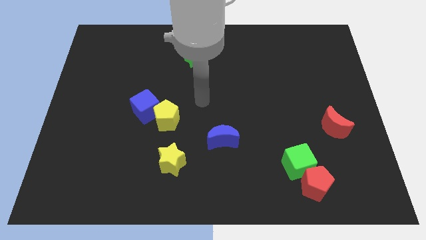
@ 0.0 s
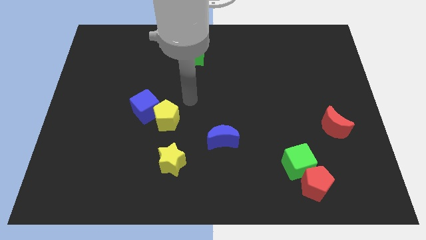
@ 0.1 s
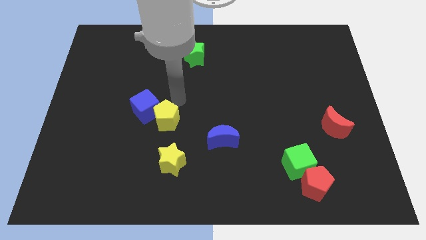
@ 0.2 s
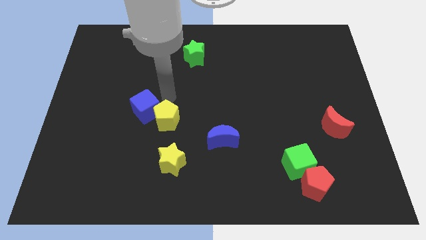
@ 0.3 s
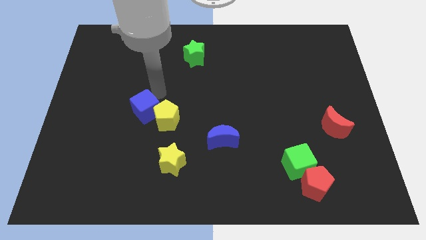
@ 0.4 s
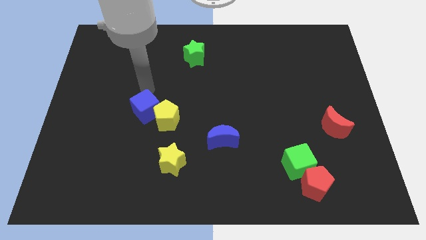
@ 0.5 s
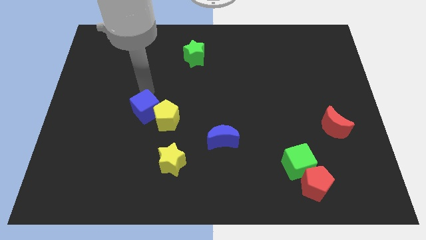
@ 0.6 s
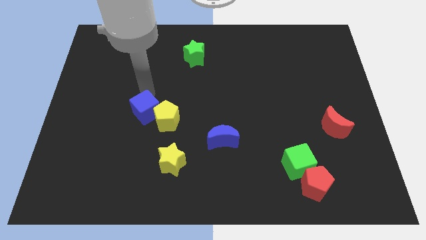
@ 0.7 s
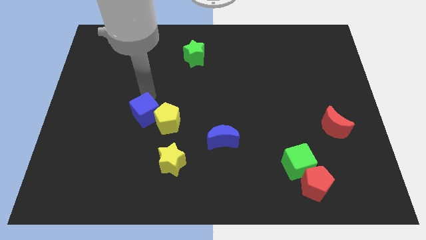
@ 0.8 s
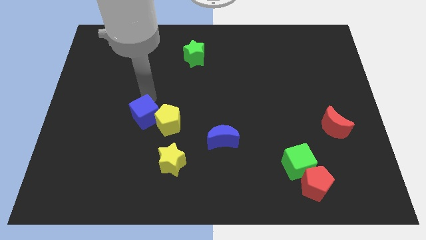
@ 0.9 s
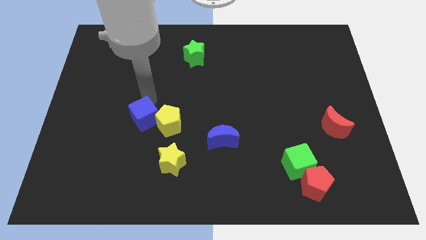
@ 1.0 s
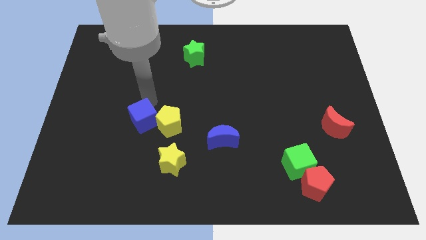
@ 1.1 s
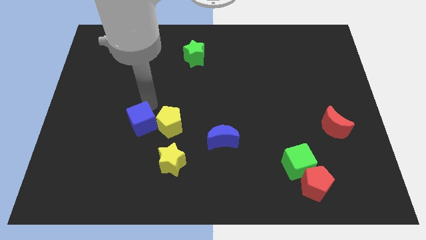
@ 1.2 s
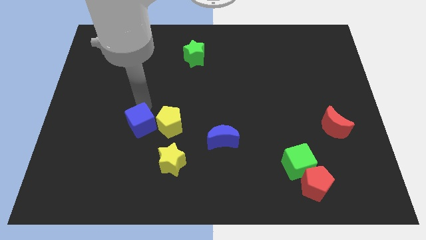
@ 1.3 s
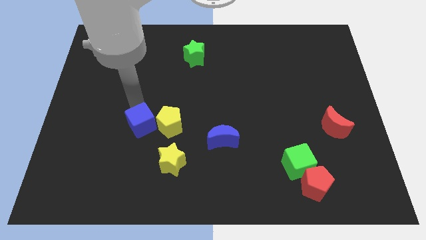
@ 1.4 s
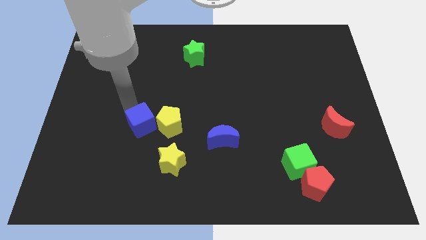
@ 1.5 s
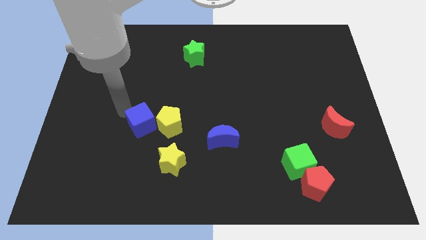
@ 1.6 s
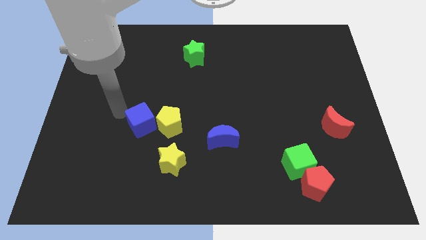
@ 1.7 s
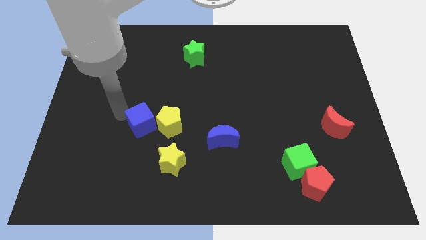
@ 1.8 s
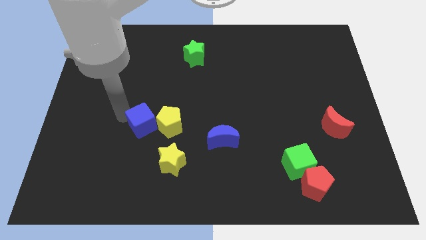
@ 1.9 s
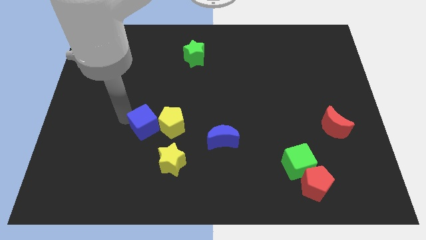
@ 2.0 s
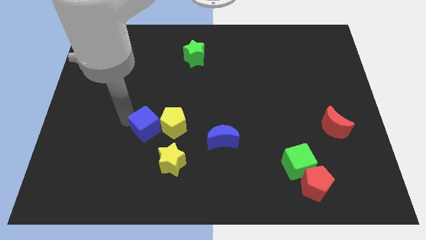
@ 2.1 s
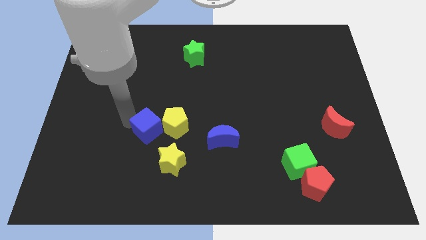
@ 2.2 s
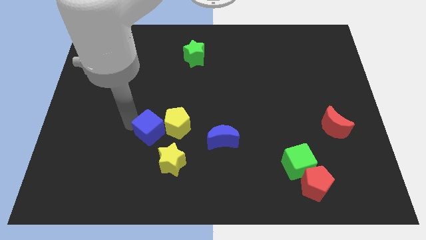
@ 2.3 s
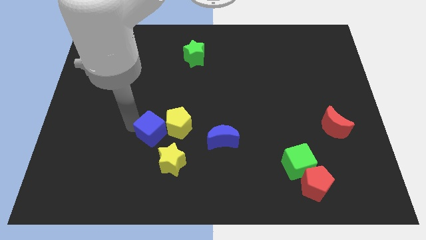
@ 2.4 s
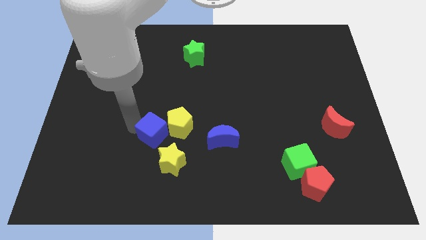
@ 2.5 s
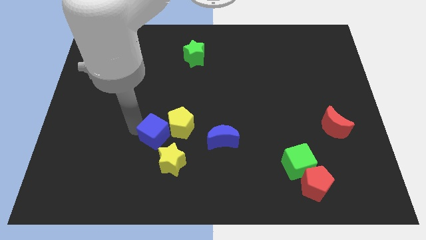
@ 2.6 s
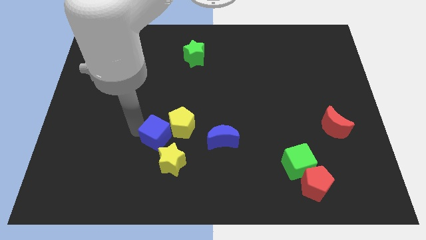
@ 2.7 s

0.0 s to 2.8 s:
slightly push the blue cube down and right

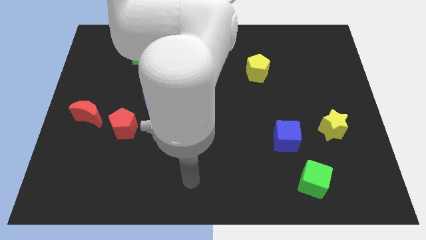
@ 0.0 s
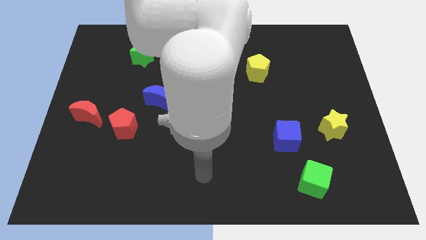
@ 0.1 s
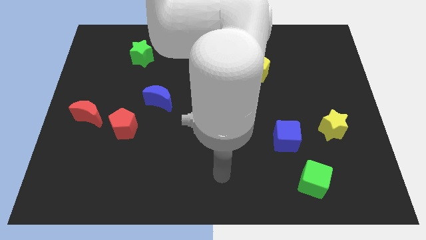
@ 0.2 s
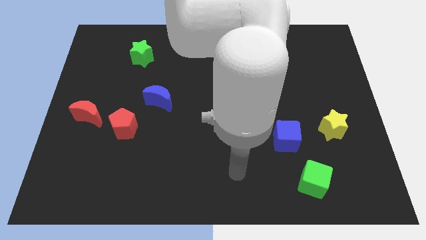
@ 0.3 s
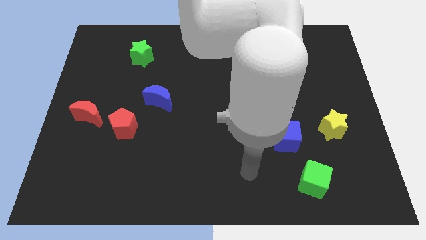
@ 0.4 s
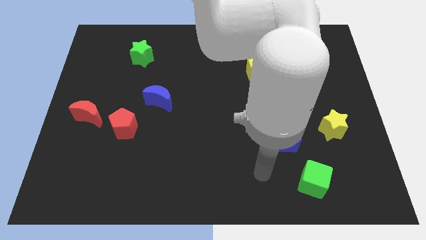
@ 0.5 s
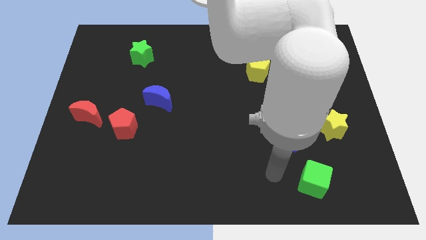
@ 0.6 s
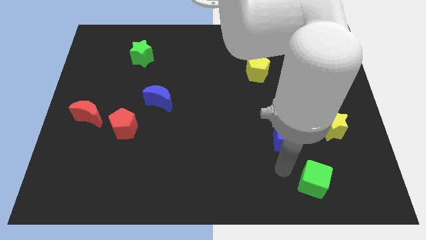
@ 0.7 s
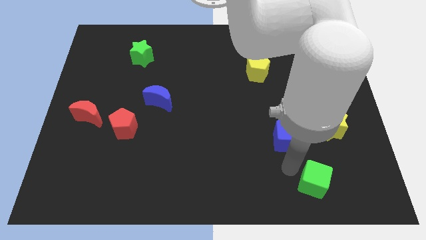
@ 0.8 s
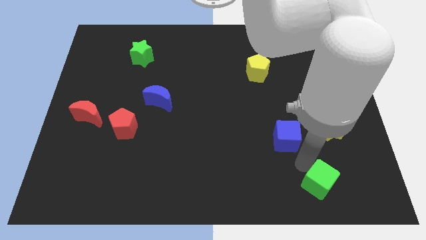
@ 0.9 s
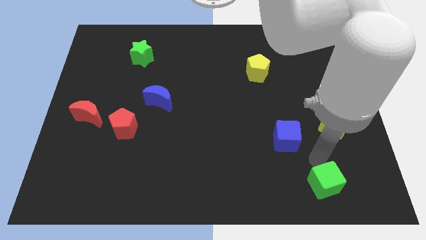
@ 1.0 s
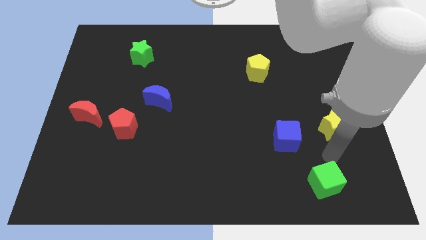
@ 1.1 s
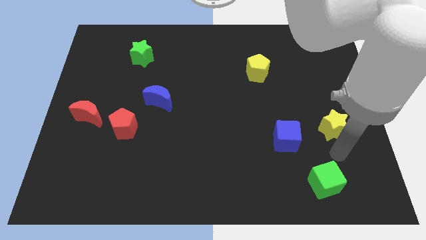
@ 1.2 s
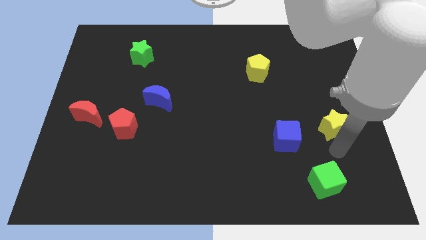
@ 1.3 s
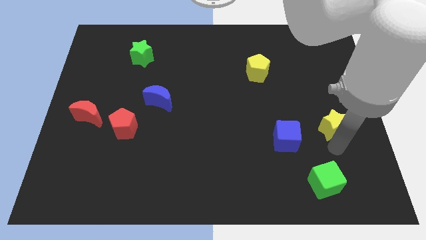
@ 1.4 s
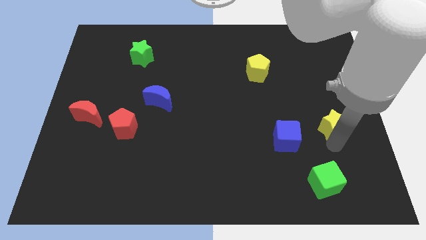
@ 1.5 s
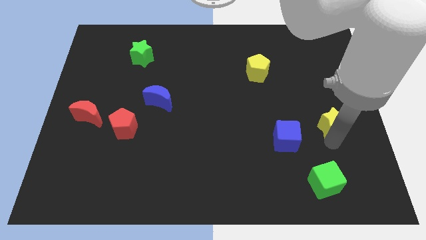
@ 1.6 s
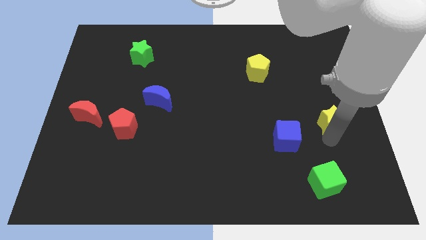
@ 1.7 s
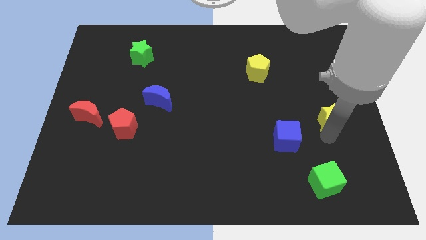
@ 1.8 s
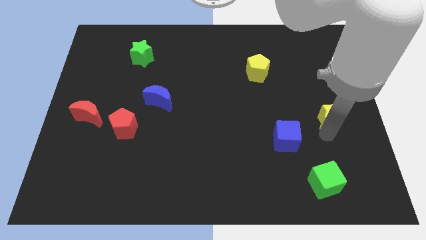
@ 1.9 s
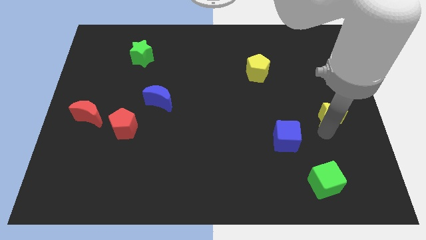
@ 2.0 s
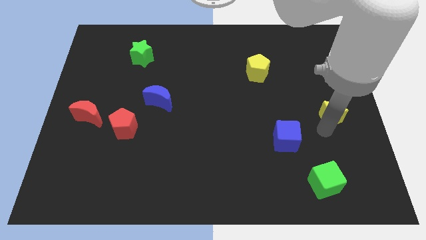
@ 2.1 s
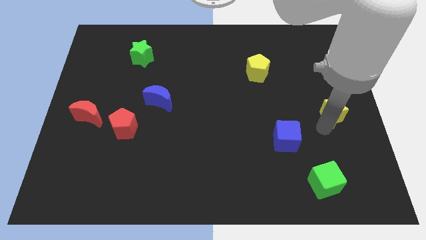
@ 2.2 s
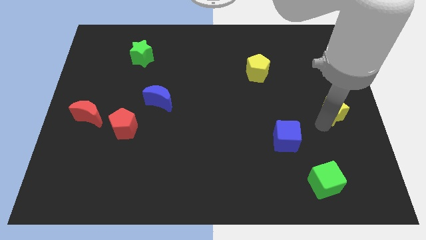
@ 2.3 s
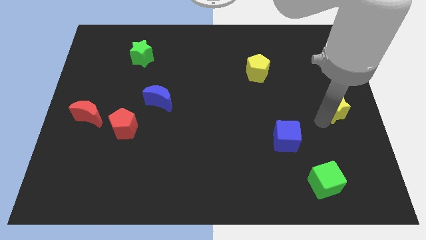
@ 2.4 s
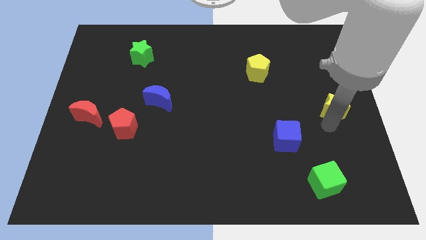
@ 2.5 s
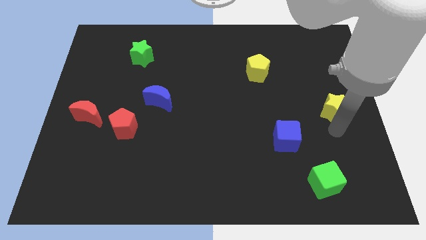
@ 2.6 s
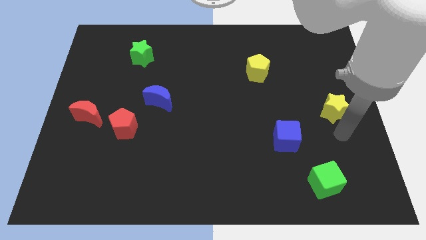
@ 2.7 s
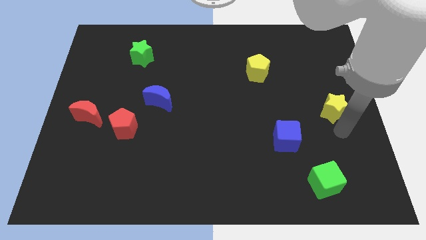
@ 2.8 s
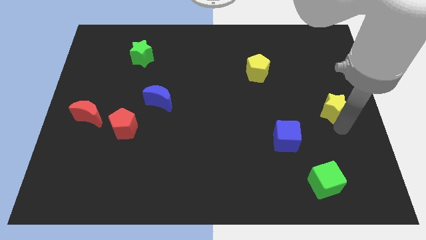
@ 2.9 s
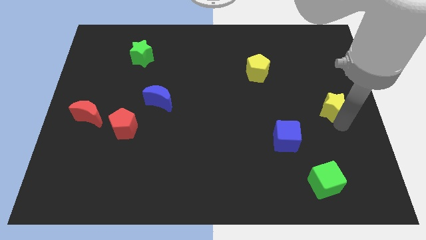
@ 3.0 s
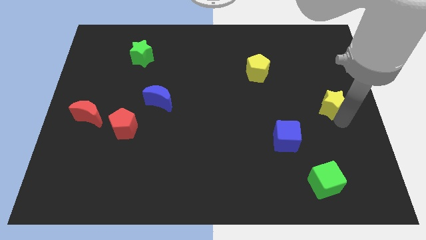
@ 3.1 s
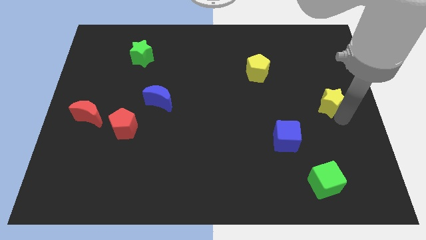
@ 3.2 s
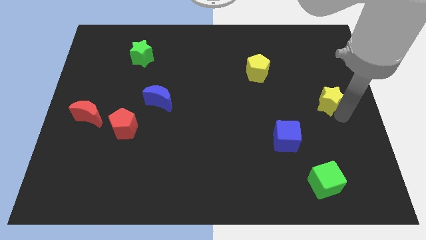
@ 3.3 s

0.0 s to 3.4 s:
slightly move the yellow star upwards

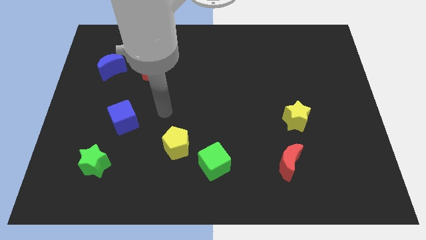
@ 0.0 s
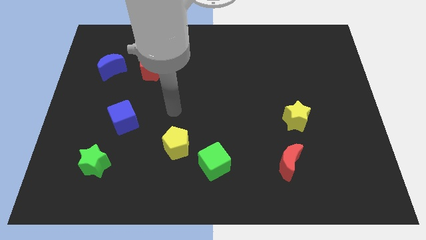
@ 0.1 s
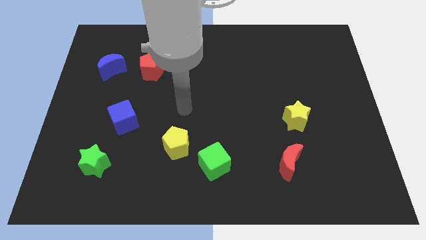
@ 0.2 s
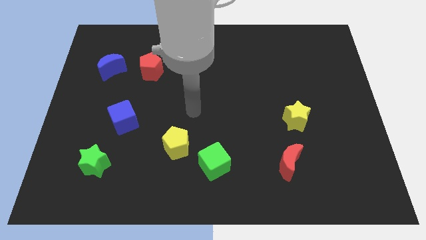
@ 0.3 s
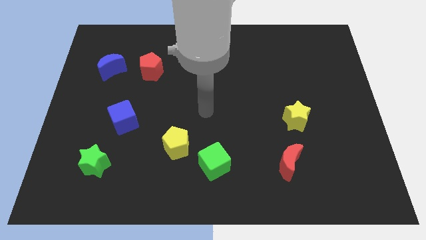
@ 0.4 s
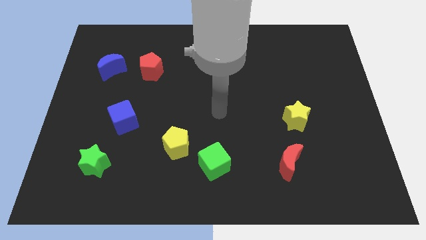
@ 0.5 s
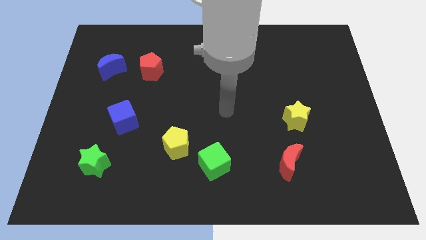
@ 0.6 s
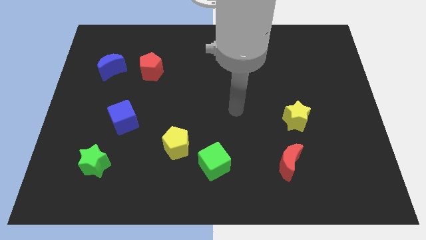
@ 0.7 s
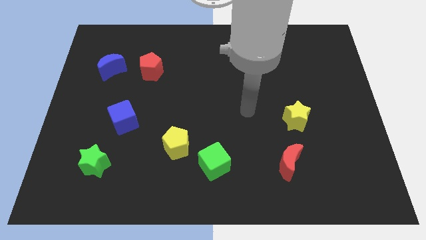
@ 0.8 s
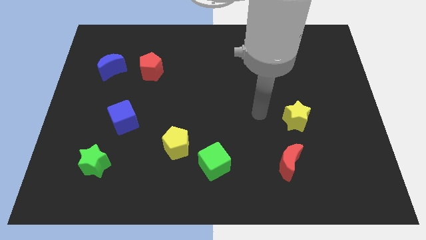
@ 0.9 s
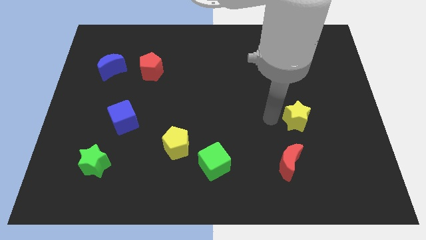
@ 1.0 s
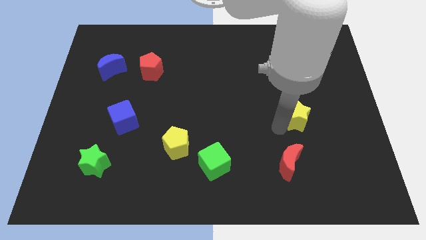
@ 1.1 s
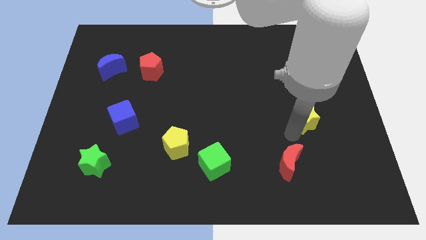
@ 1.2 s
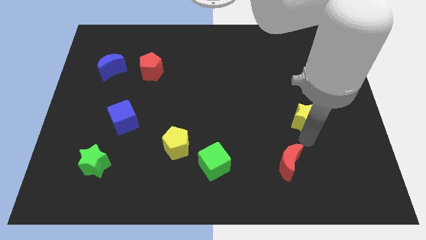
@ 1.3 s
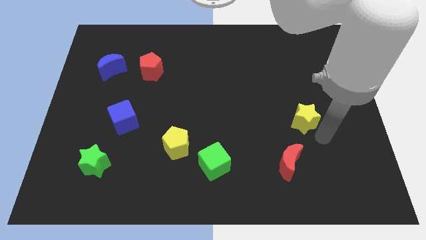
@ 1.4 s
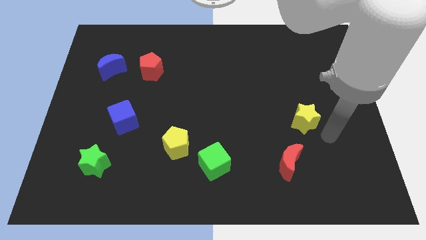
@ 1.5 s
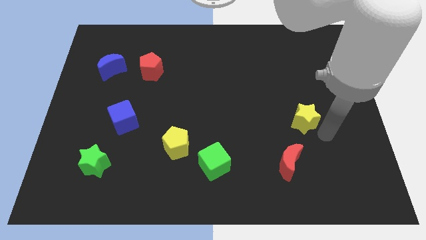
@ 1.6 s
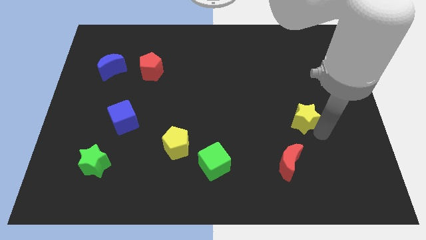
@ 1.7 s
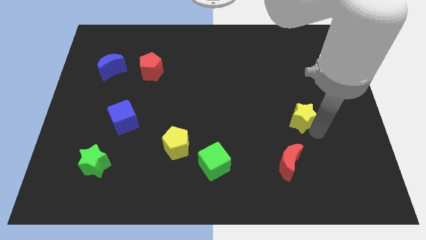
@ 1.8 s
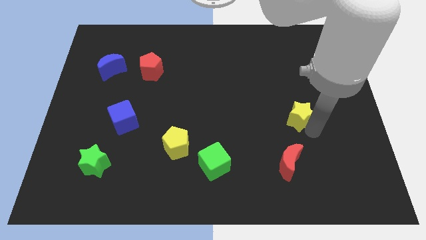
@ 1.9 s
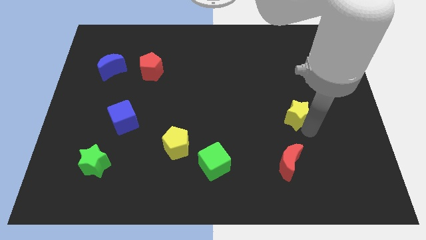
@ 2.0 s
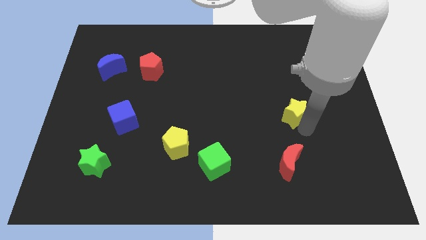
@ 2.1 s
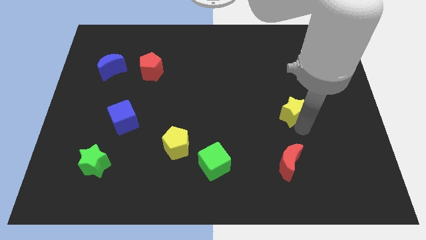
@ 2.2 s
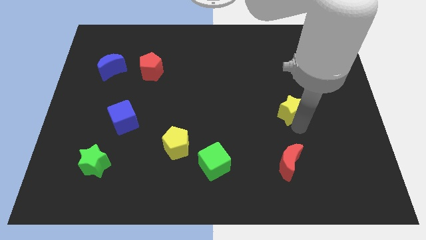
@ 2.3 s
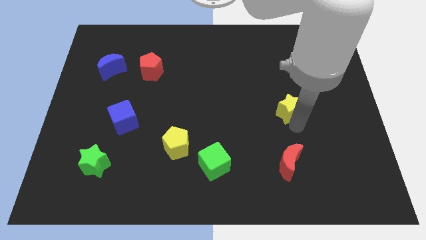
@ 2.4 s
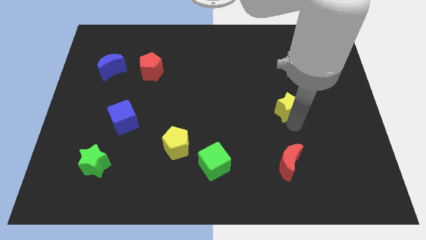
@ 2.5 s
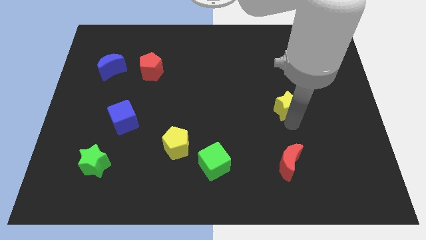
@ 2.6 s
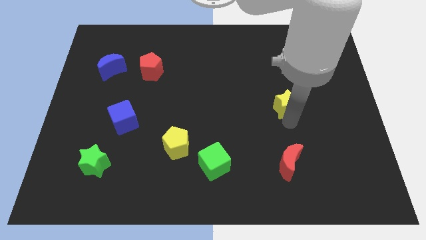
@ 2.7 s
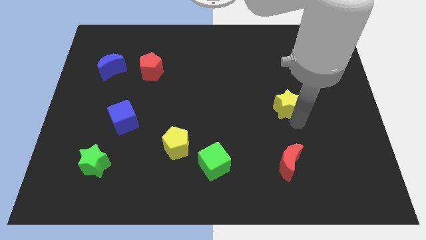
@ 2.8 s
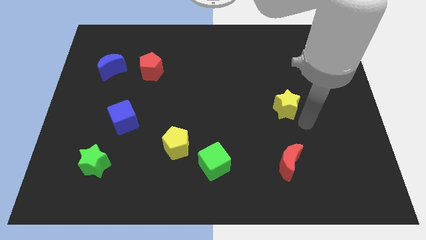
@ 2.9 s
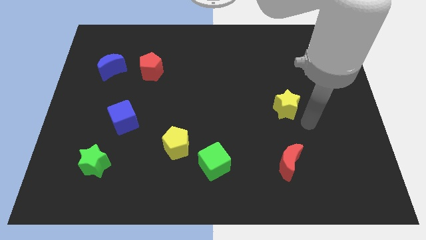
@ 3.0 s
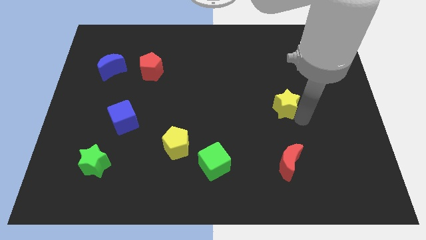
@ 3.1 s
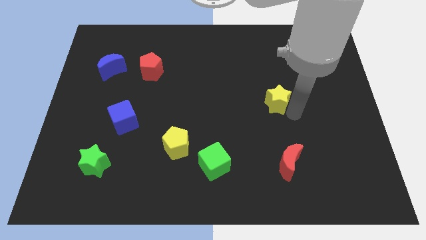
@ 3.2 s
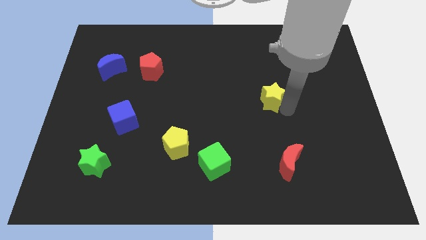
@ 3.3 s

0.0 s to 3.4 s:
push the yellow star slightly up and to the left diagonally
